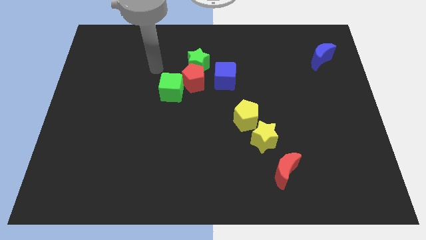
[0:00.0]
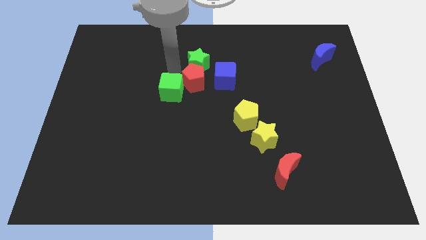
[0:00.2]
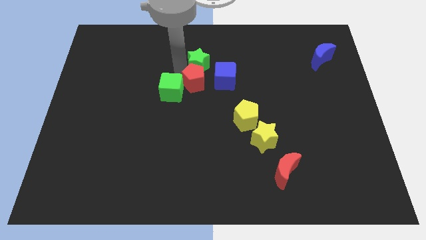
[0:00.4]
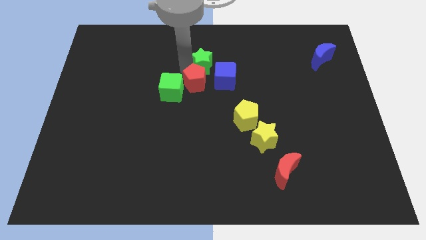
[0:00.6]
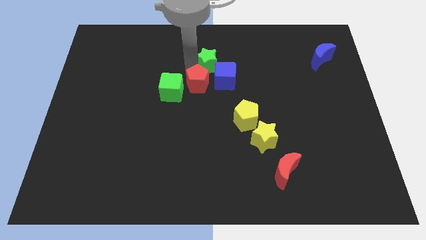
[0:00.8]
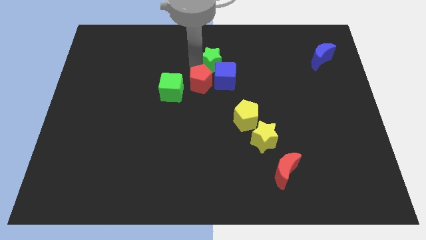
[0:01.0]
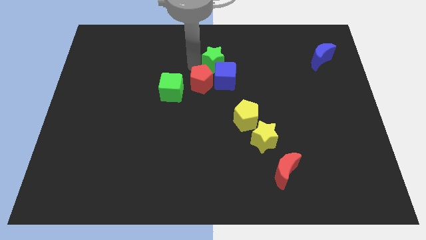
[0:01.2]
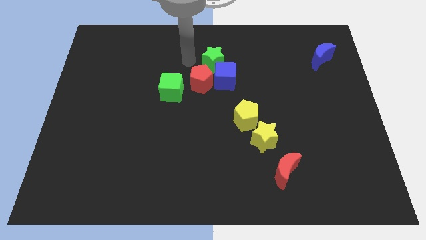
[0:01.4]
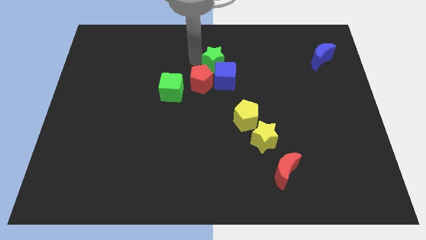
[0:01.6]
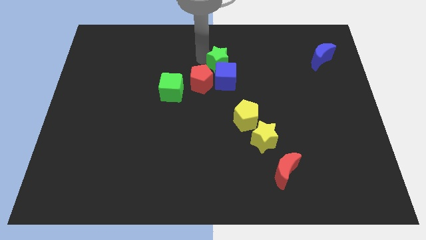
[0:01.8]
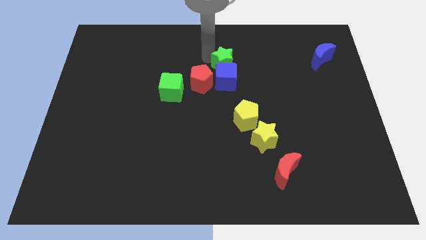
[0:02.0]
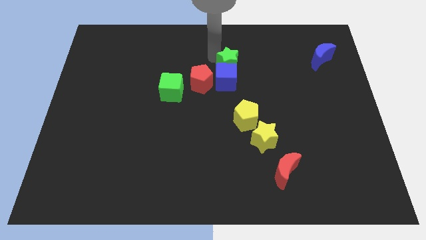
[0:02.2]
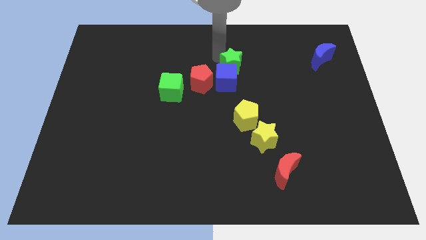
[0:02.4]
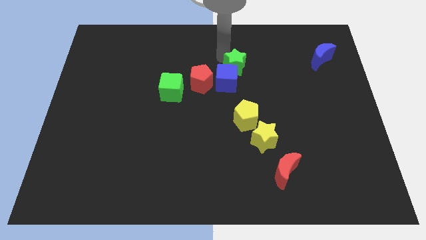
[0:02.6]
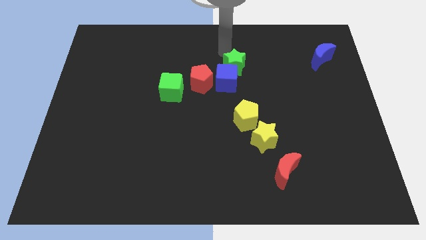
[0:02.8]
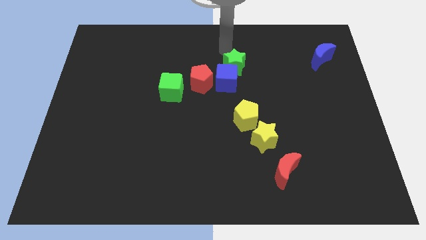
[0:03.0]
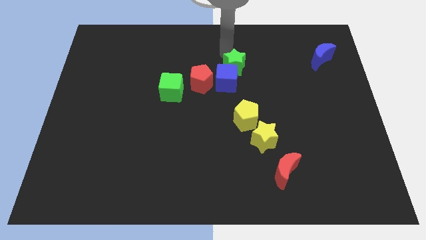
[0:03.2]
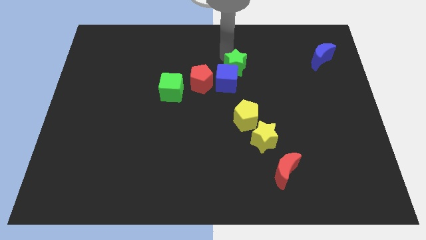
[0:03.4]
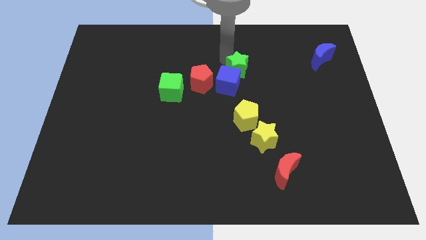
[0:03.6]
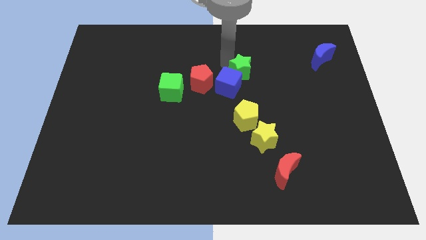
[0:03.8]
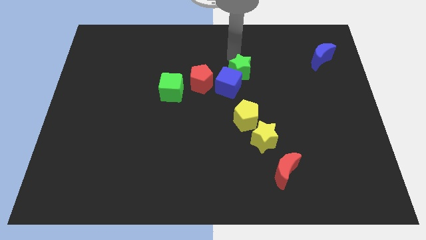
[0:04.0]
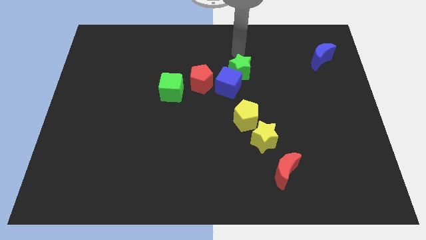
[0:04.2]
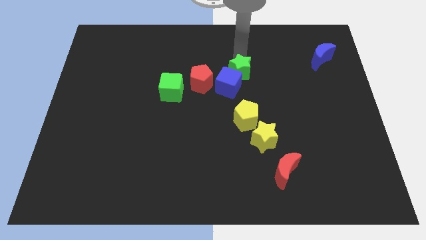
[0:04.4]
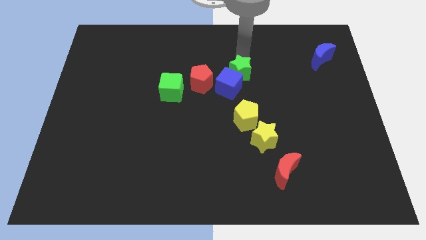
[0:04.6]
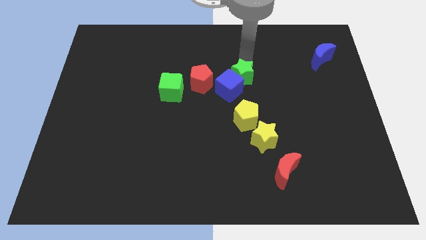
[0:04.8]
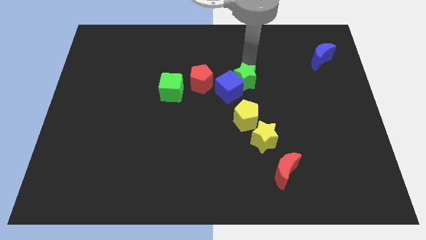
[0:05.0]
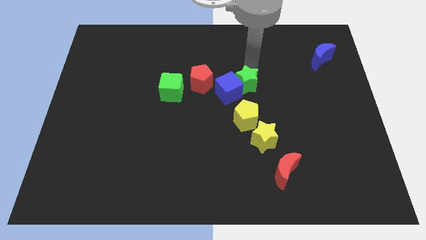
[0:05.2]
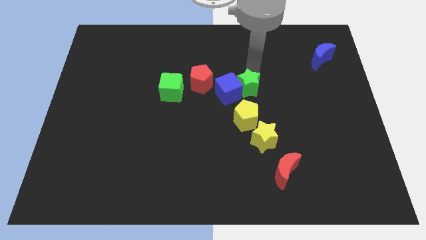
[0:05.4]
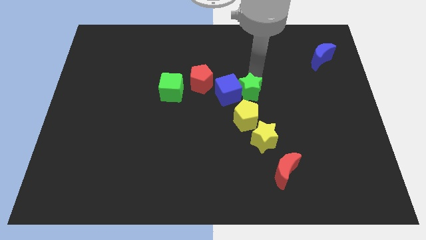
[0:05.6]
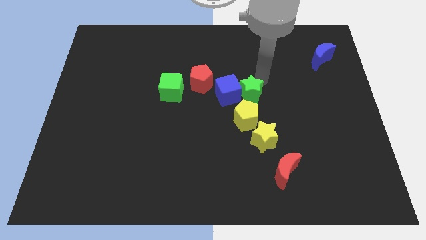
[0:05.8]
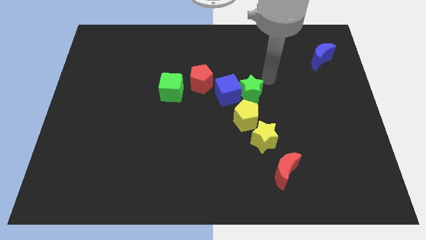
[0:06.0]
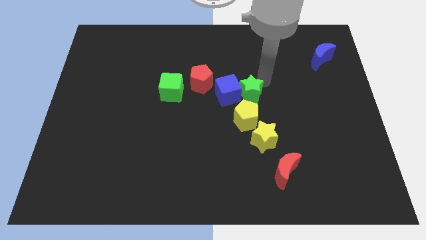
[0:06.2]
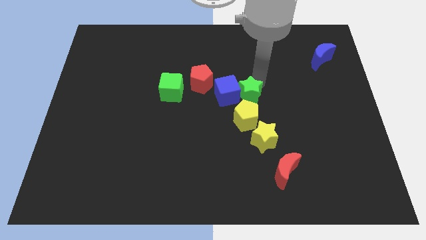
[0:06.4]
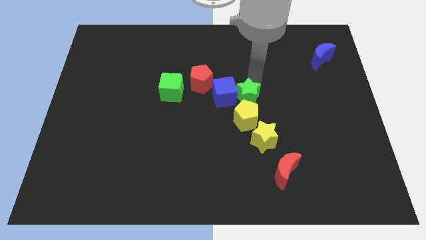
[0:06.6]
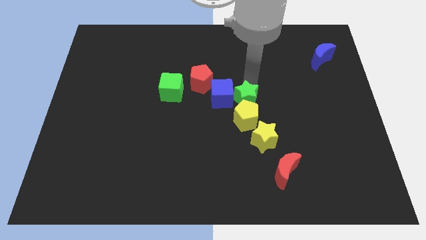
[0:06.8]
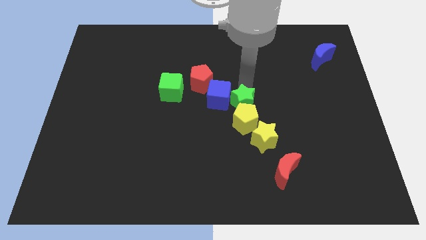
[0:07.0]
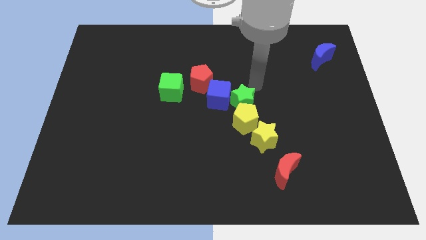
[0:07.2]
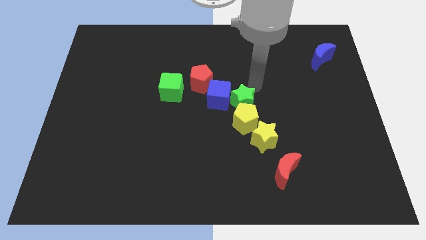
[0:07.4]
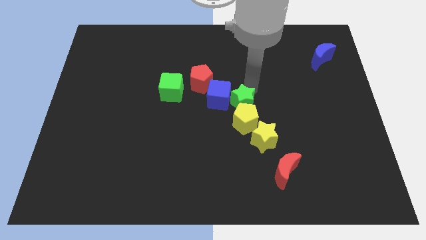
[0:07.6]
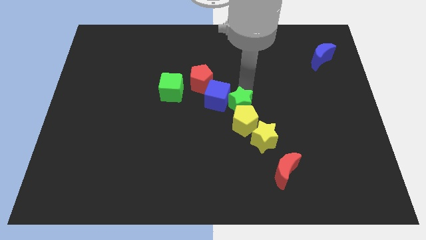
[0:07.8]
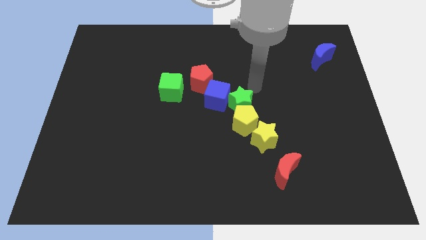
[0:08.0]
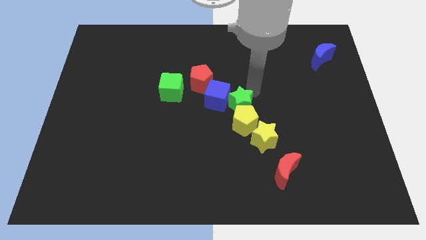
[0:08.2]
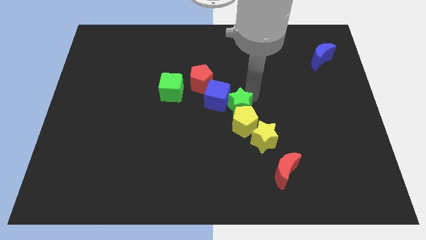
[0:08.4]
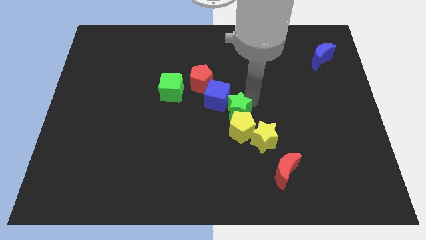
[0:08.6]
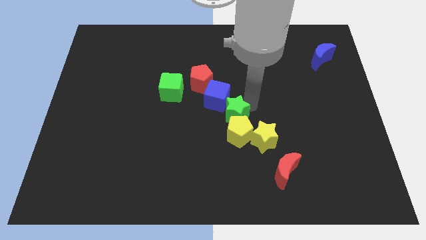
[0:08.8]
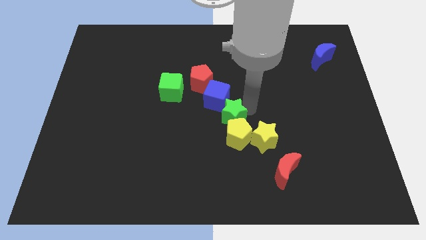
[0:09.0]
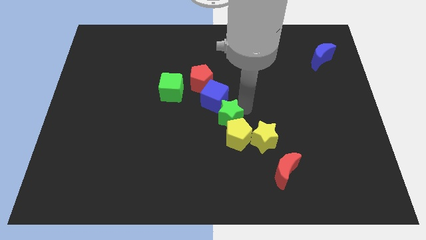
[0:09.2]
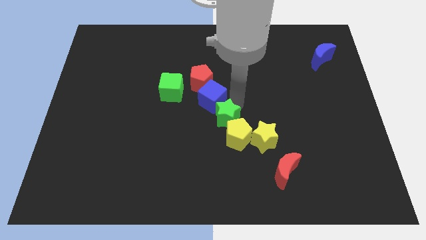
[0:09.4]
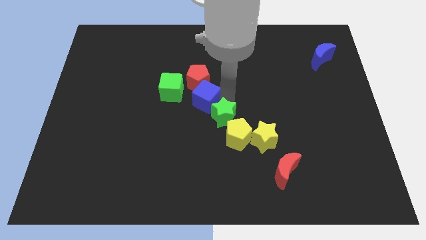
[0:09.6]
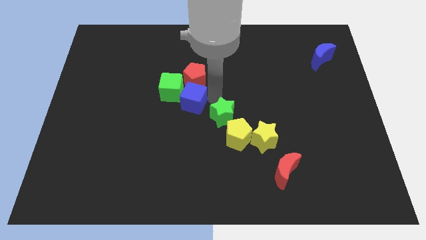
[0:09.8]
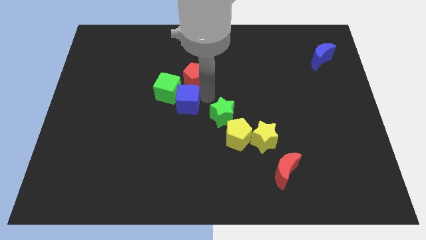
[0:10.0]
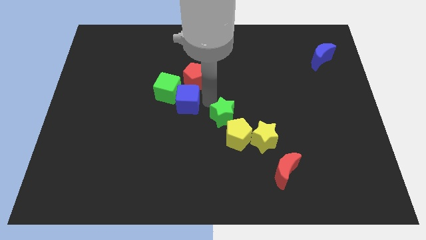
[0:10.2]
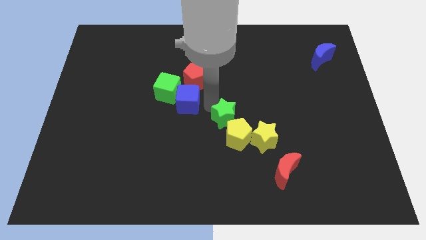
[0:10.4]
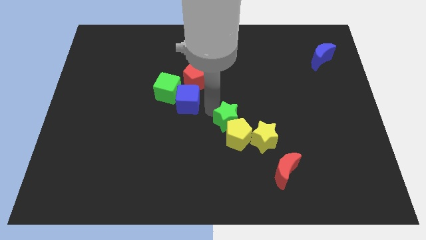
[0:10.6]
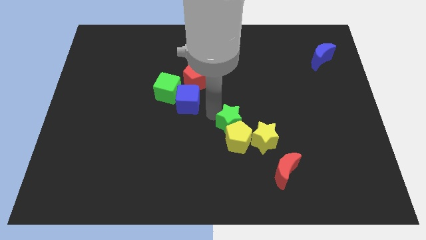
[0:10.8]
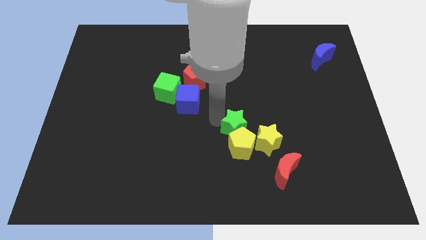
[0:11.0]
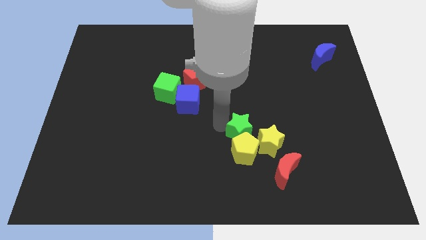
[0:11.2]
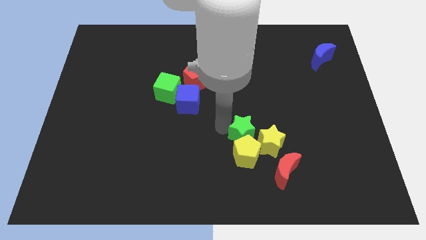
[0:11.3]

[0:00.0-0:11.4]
slide the green star to the top left of the red moon

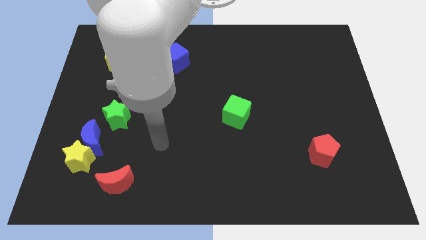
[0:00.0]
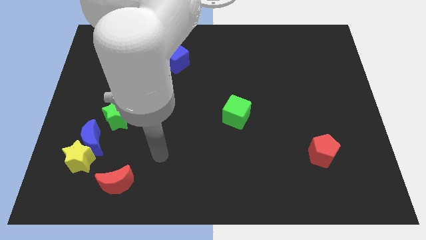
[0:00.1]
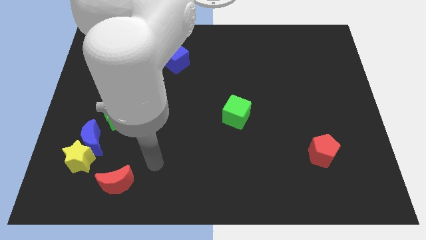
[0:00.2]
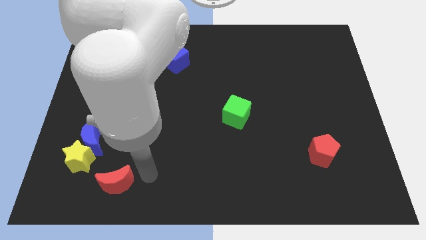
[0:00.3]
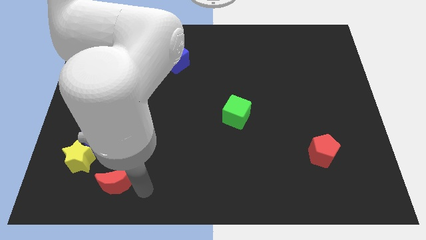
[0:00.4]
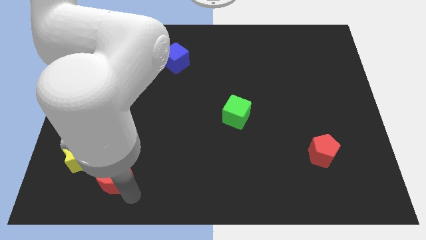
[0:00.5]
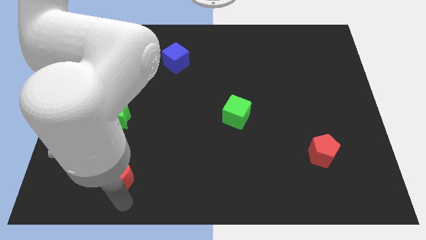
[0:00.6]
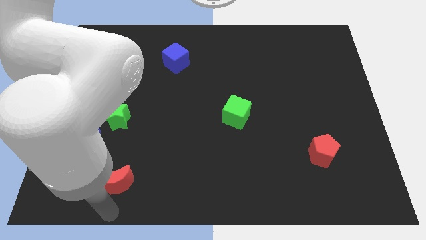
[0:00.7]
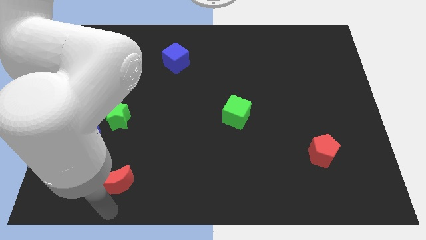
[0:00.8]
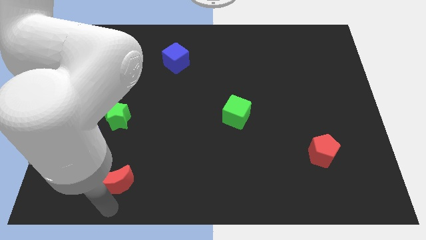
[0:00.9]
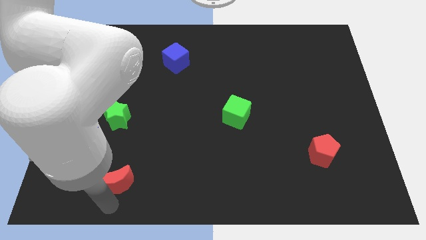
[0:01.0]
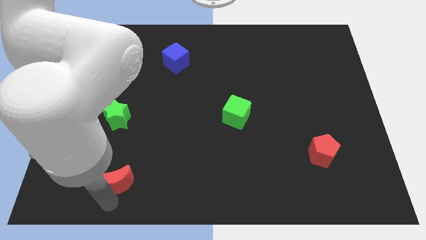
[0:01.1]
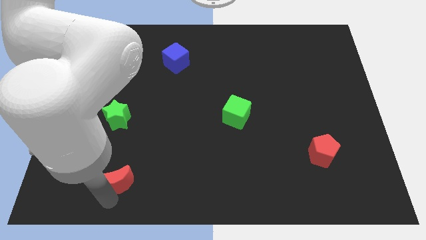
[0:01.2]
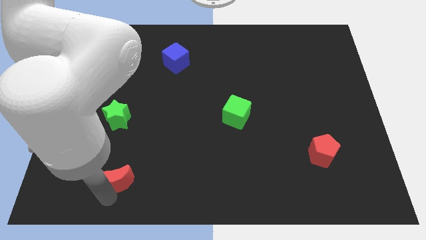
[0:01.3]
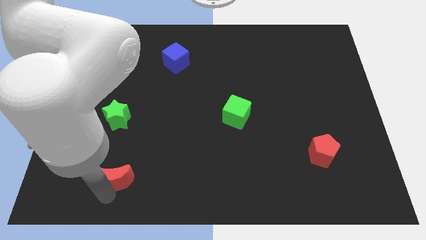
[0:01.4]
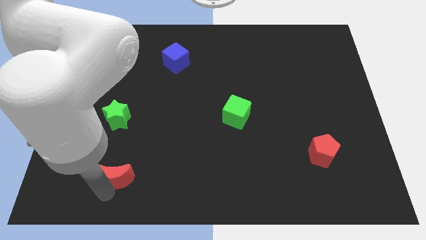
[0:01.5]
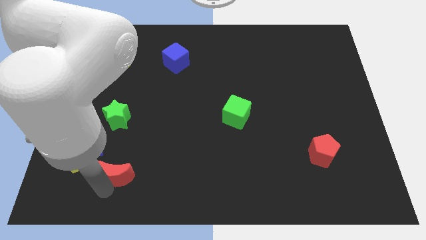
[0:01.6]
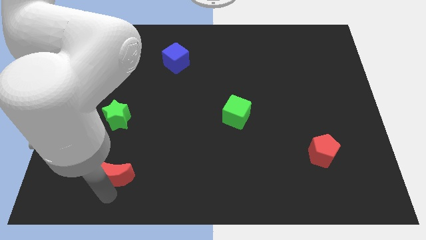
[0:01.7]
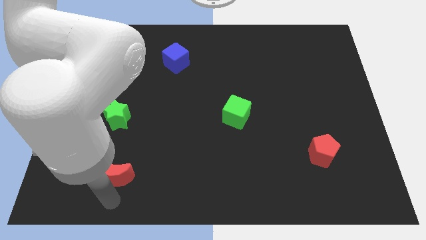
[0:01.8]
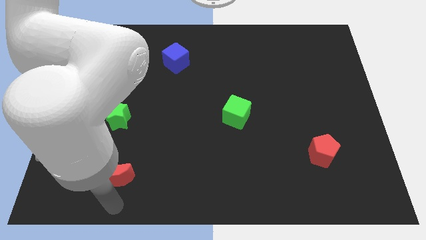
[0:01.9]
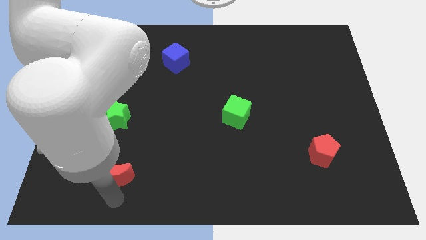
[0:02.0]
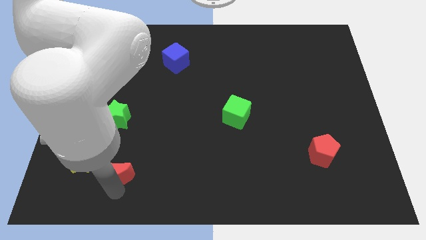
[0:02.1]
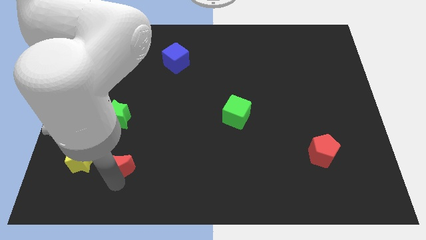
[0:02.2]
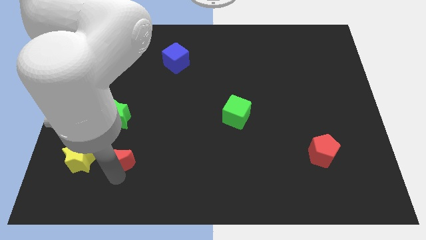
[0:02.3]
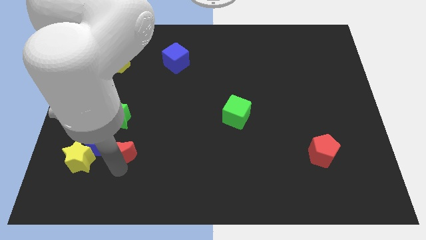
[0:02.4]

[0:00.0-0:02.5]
move the red moon to the top right of the yellow star
